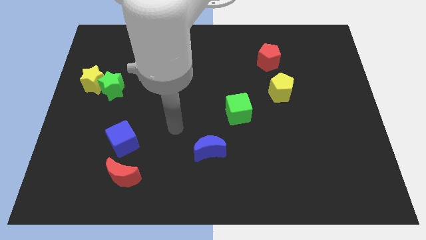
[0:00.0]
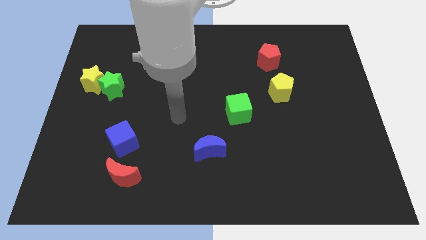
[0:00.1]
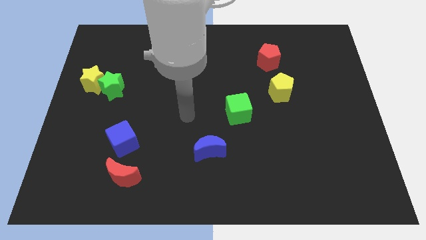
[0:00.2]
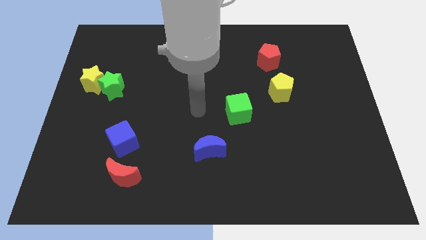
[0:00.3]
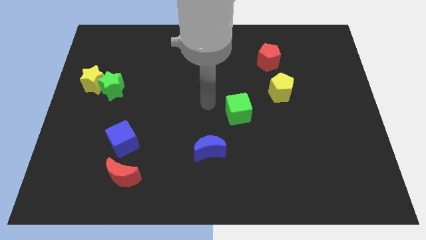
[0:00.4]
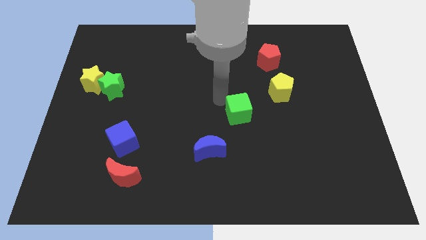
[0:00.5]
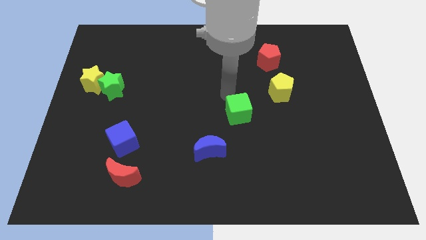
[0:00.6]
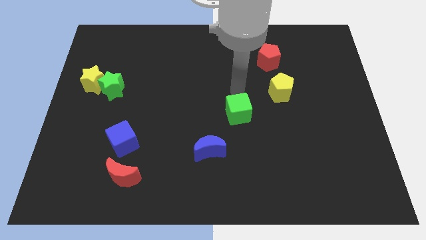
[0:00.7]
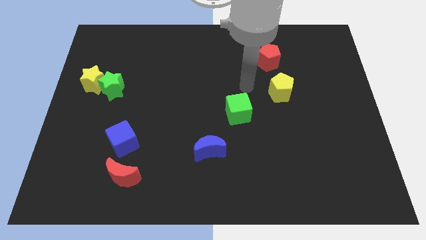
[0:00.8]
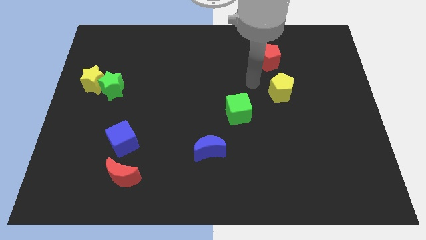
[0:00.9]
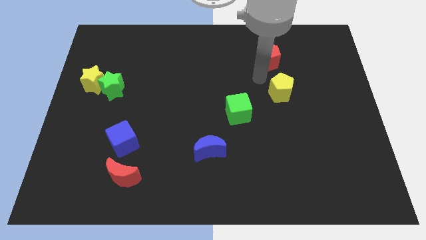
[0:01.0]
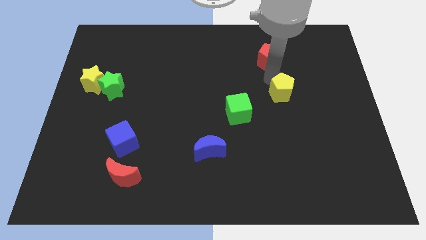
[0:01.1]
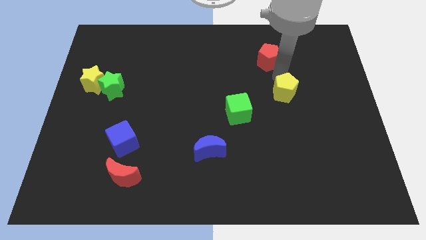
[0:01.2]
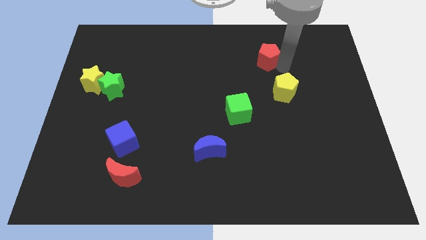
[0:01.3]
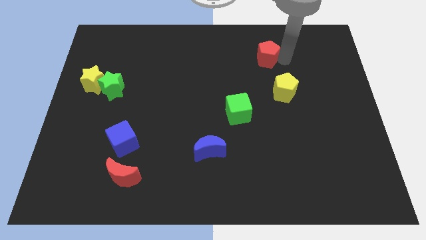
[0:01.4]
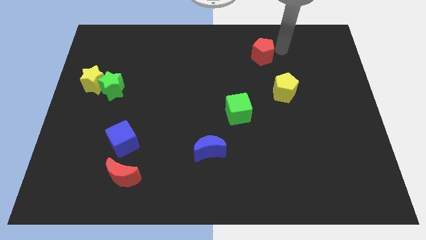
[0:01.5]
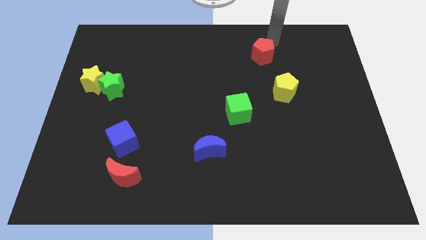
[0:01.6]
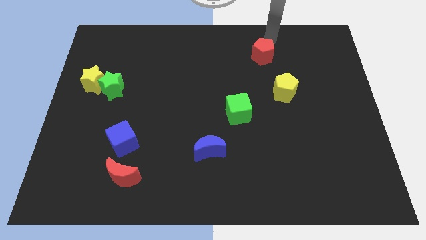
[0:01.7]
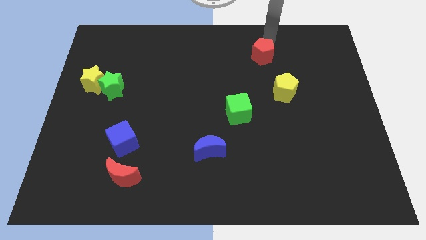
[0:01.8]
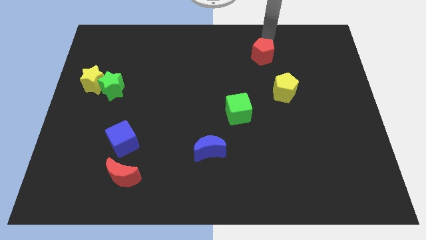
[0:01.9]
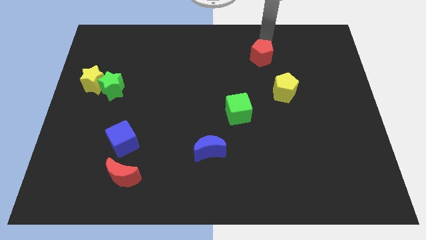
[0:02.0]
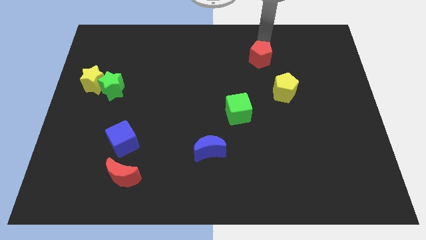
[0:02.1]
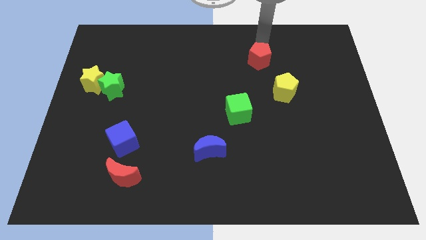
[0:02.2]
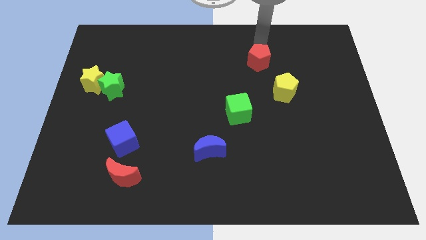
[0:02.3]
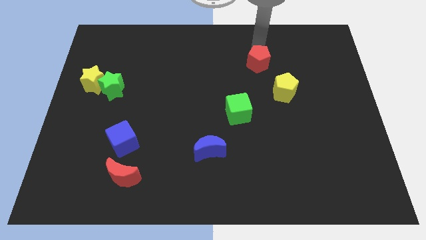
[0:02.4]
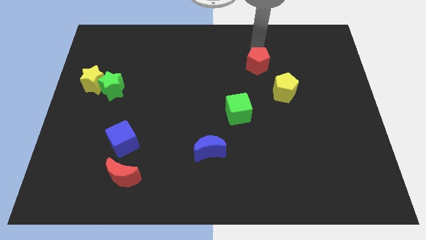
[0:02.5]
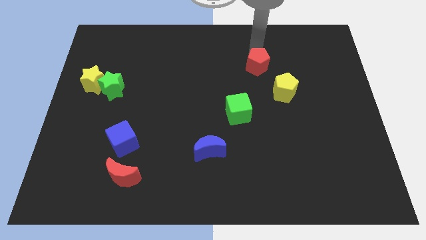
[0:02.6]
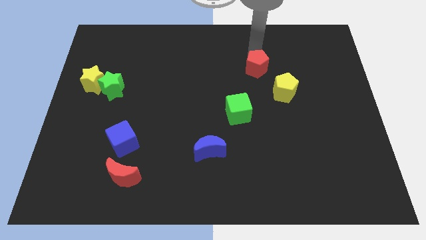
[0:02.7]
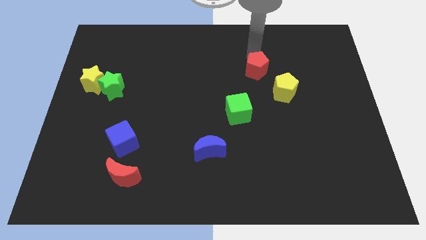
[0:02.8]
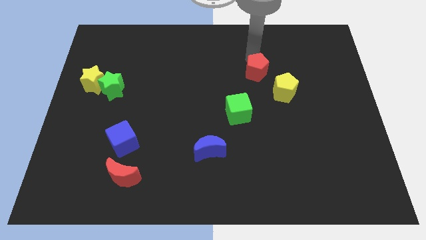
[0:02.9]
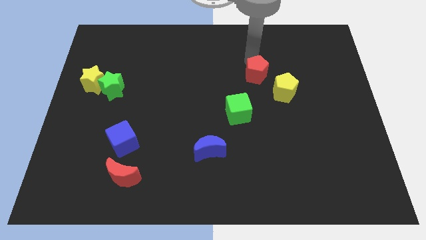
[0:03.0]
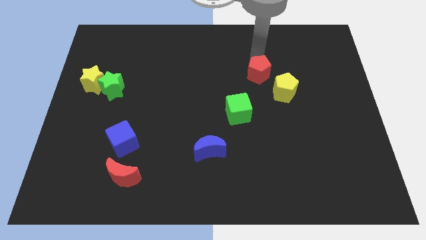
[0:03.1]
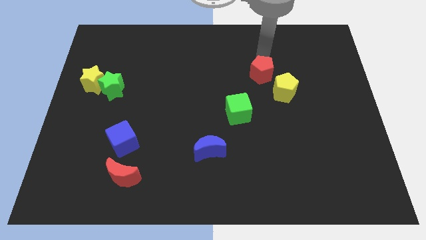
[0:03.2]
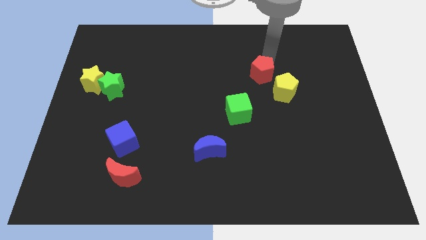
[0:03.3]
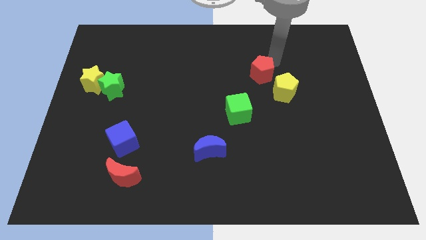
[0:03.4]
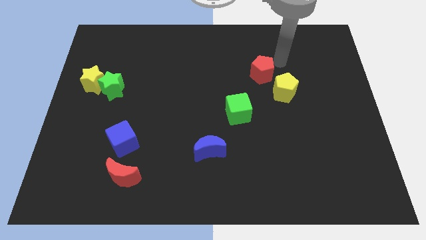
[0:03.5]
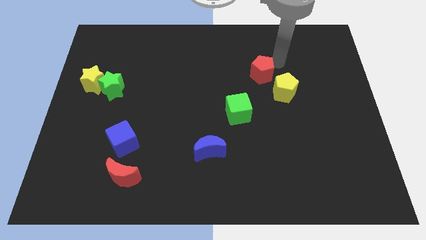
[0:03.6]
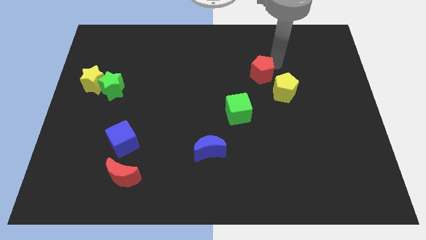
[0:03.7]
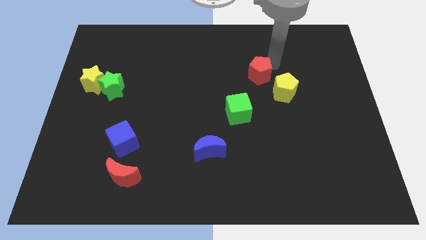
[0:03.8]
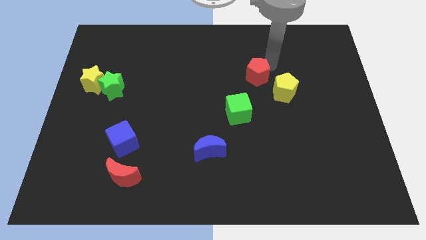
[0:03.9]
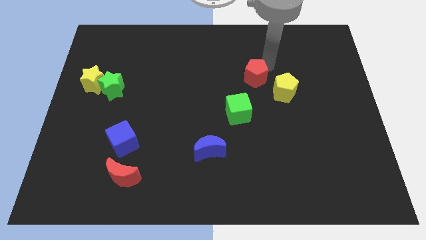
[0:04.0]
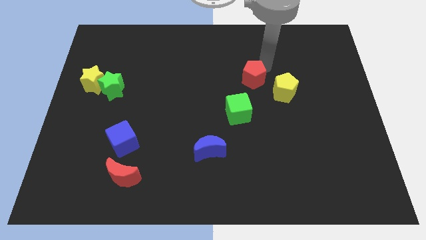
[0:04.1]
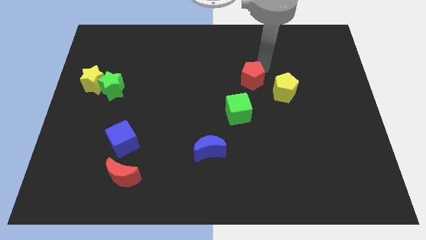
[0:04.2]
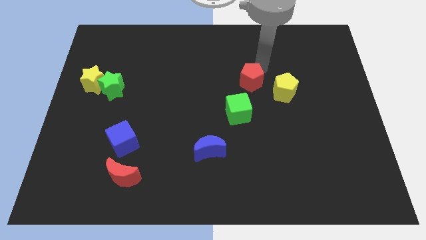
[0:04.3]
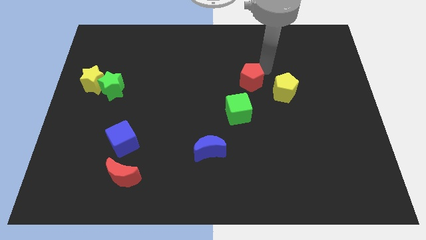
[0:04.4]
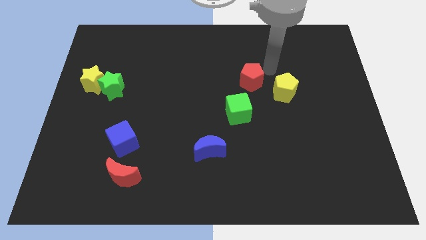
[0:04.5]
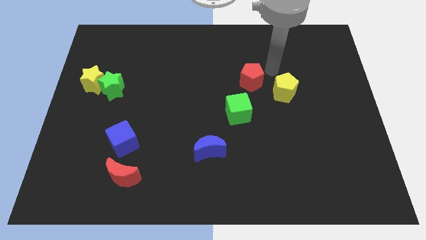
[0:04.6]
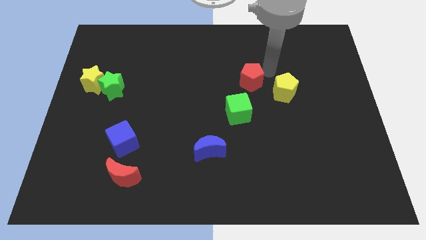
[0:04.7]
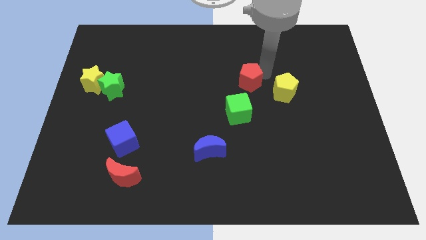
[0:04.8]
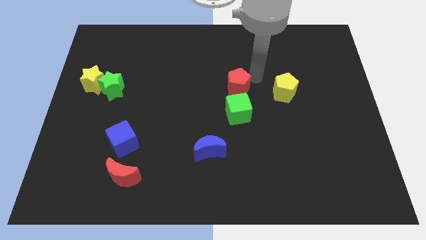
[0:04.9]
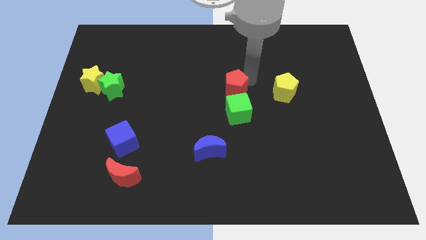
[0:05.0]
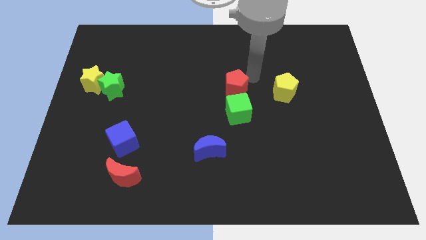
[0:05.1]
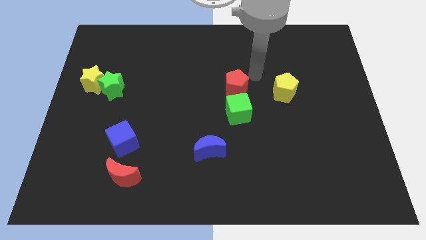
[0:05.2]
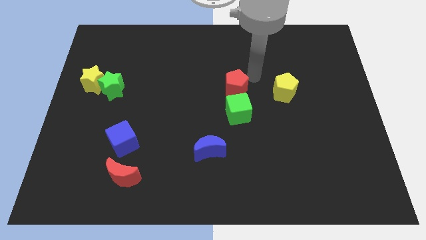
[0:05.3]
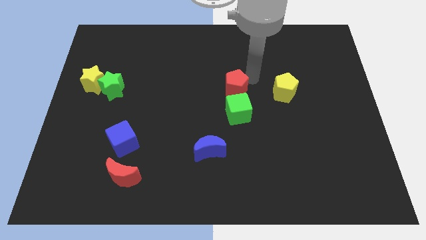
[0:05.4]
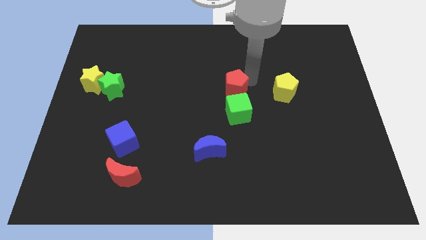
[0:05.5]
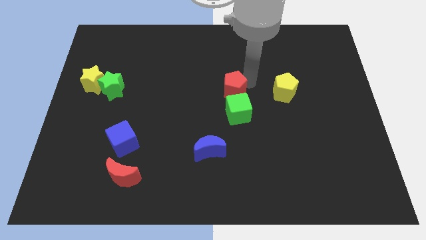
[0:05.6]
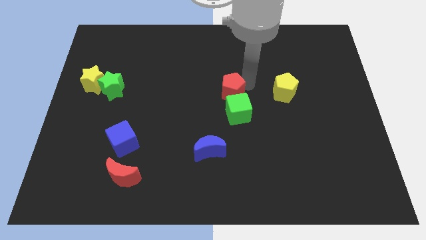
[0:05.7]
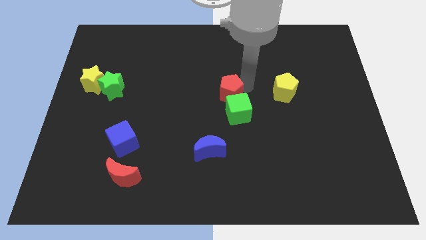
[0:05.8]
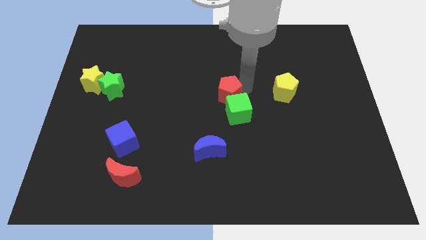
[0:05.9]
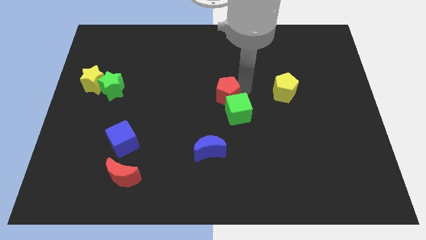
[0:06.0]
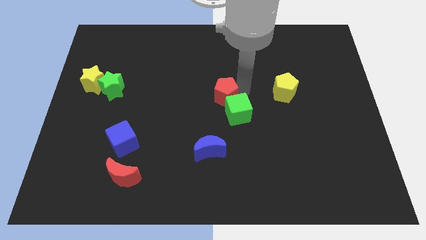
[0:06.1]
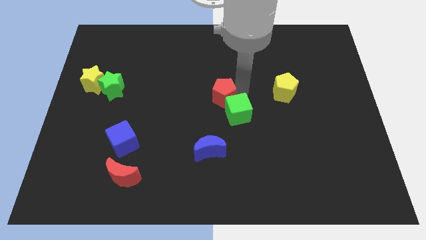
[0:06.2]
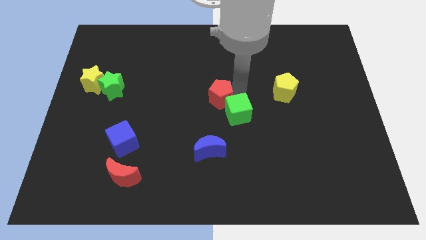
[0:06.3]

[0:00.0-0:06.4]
put the red pentagon to the left of the green cube

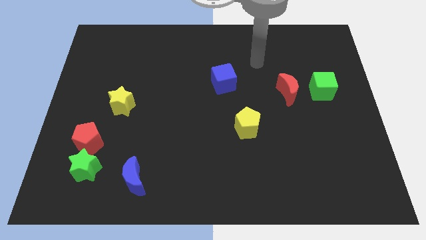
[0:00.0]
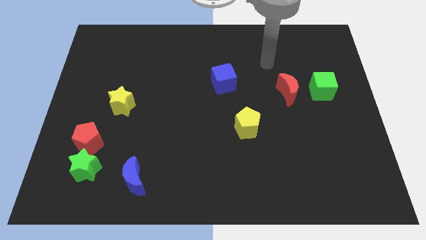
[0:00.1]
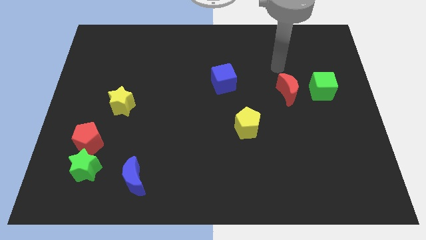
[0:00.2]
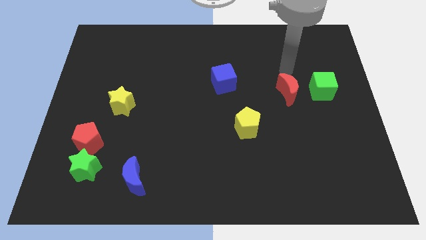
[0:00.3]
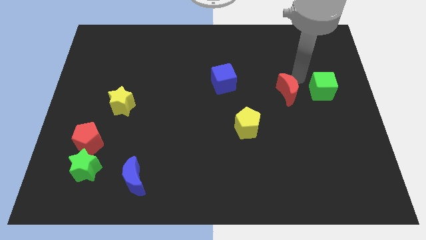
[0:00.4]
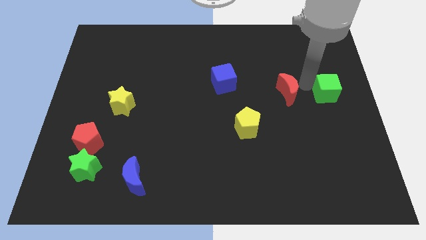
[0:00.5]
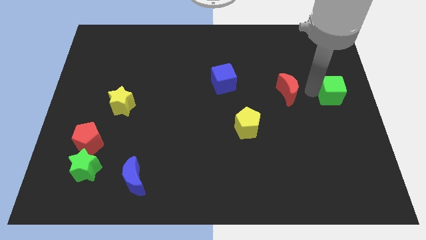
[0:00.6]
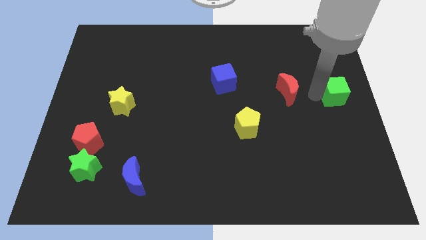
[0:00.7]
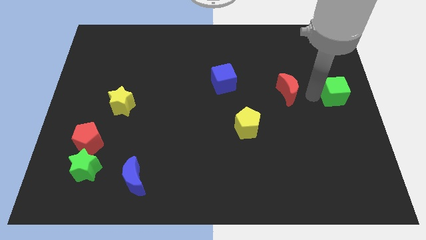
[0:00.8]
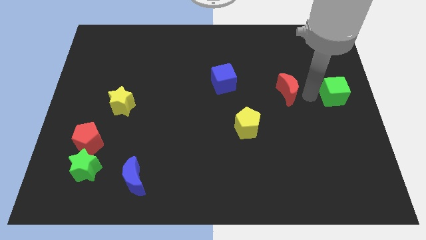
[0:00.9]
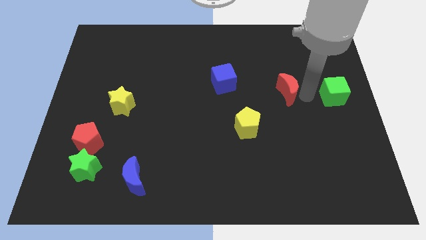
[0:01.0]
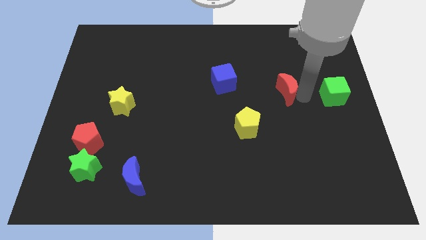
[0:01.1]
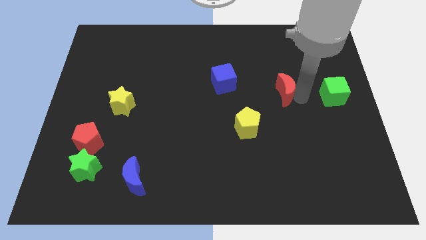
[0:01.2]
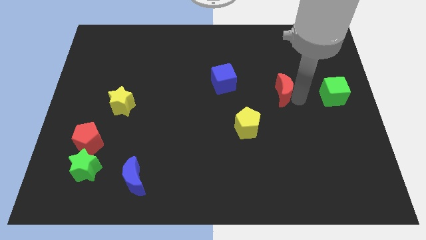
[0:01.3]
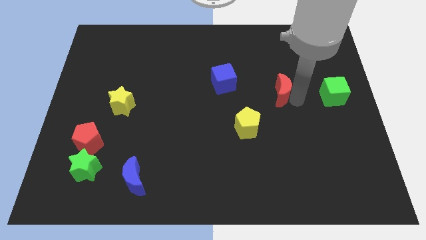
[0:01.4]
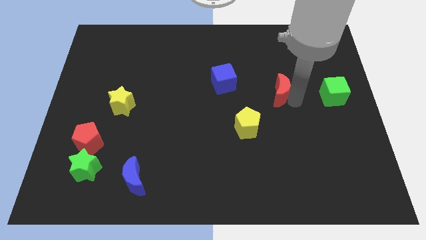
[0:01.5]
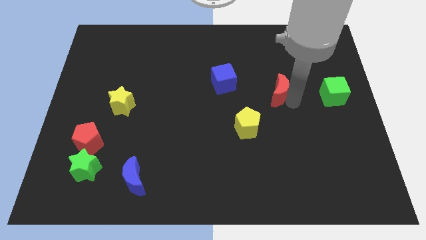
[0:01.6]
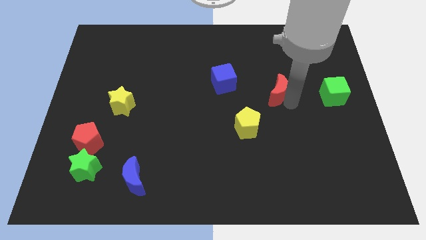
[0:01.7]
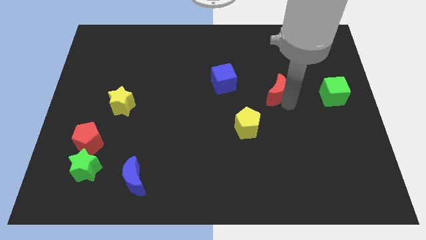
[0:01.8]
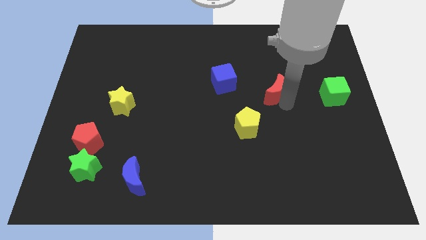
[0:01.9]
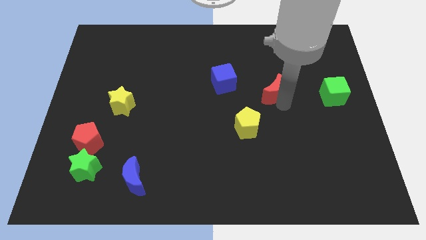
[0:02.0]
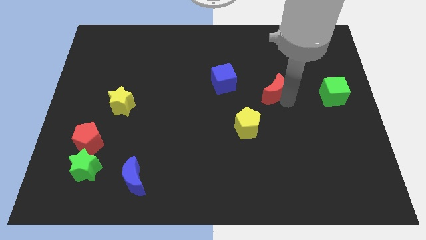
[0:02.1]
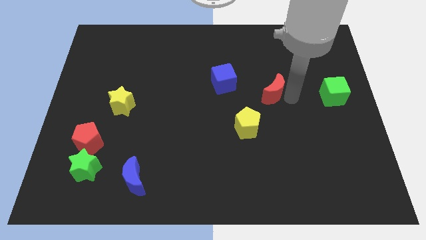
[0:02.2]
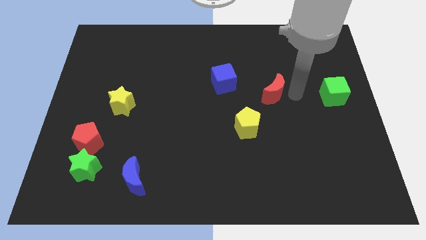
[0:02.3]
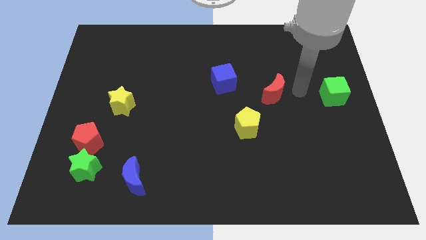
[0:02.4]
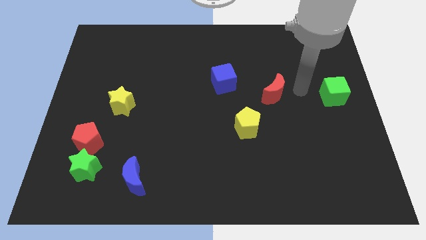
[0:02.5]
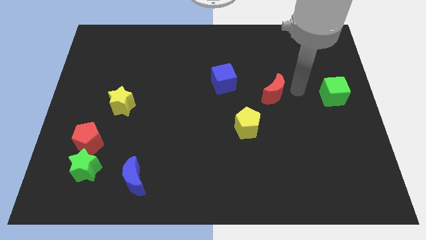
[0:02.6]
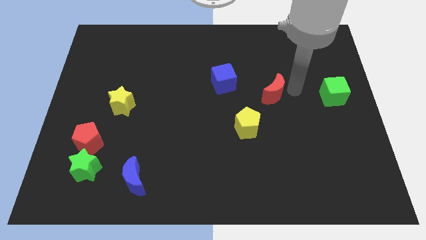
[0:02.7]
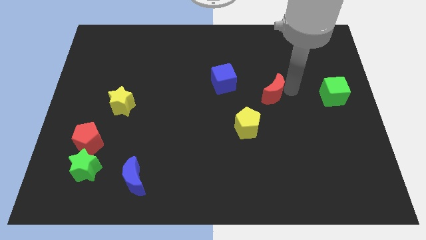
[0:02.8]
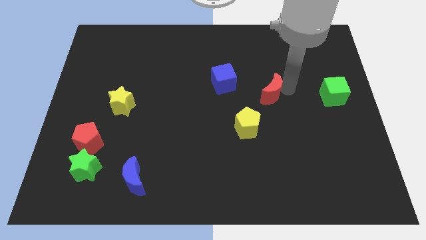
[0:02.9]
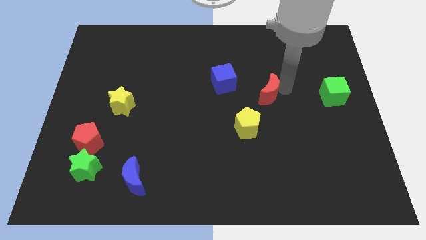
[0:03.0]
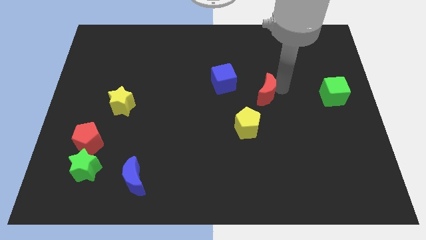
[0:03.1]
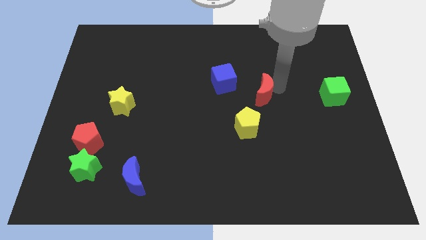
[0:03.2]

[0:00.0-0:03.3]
put the red moon to the bottom right of the blue cube
